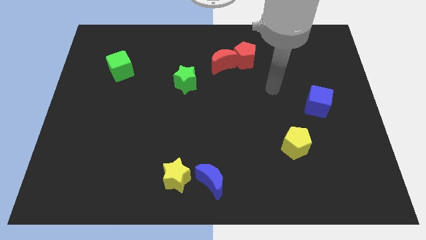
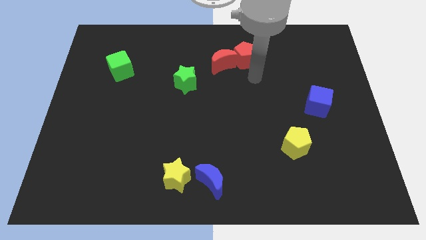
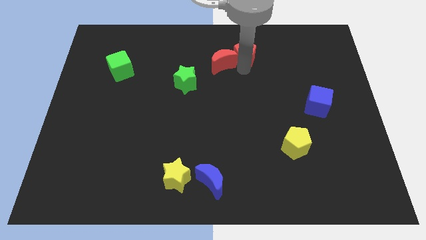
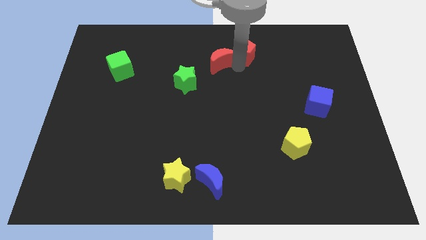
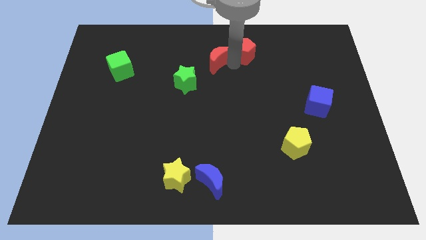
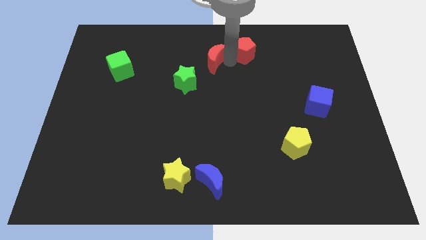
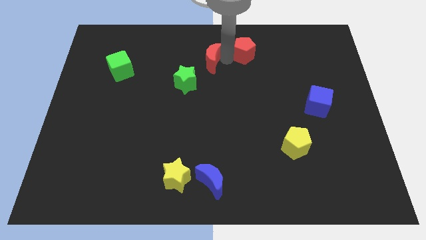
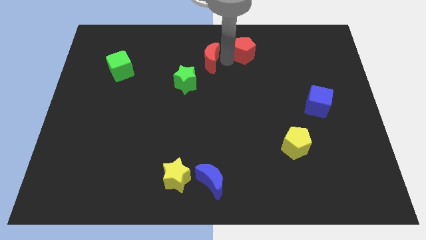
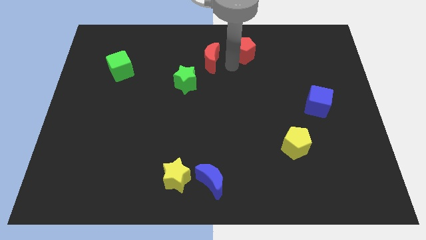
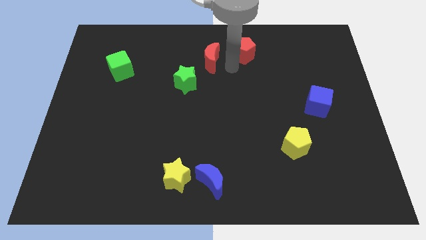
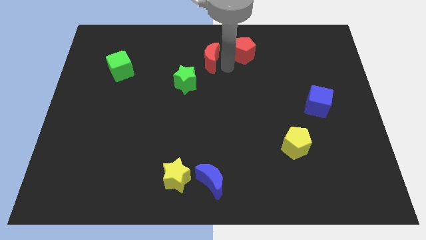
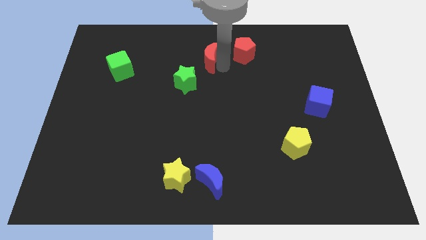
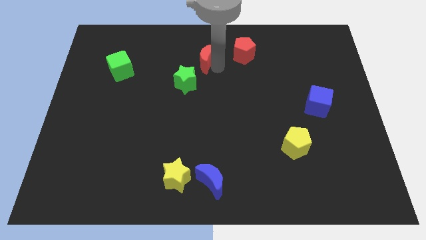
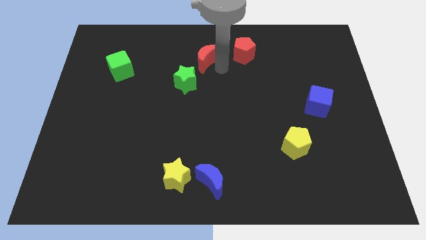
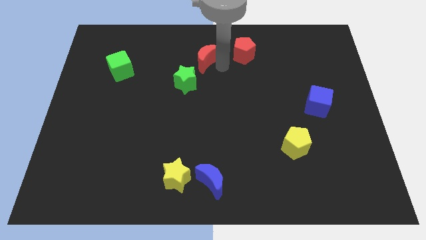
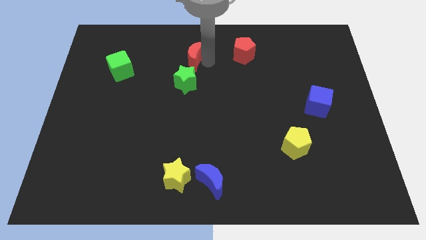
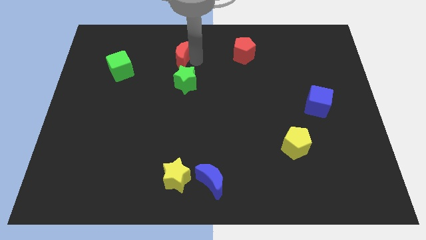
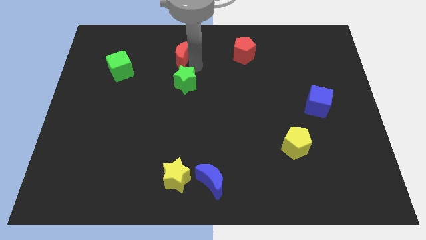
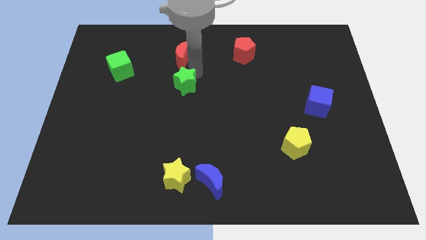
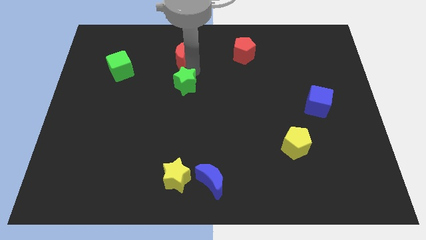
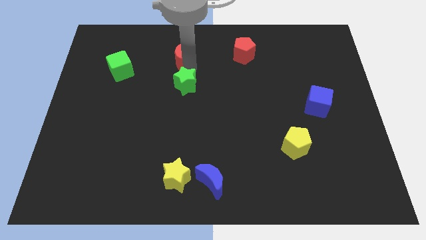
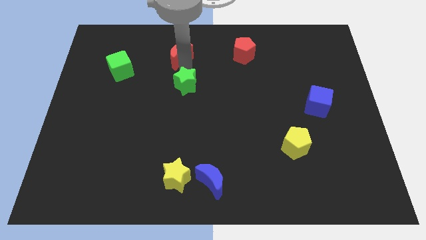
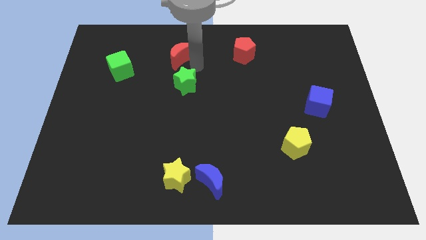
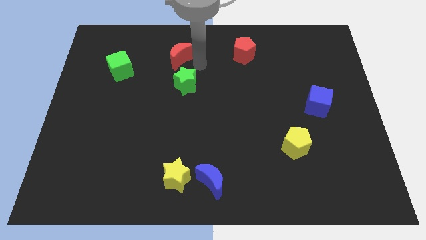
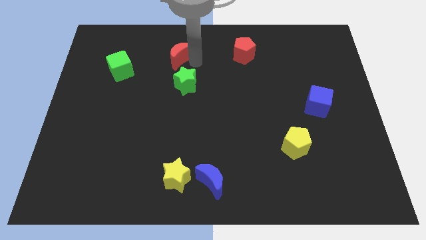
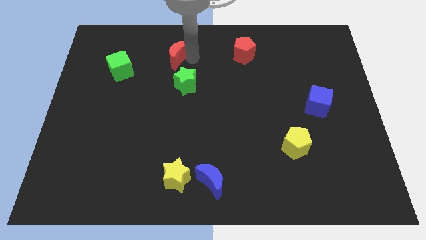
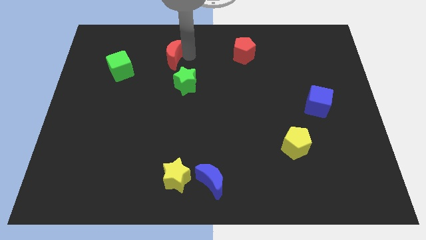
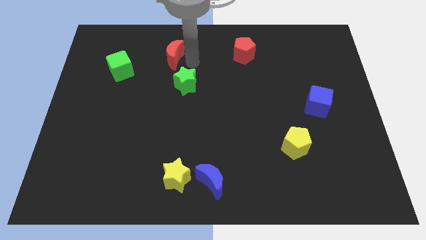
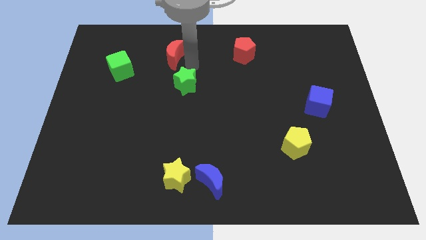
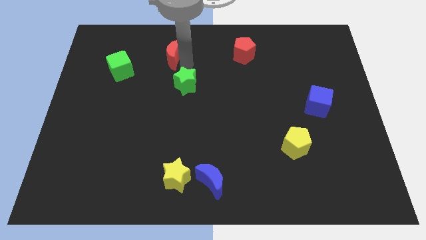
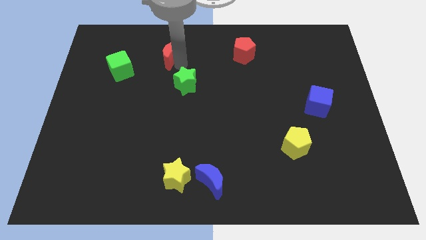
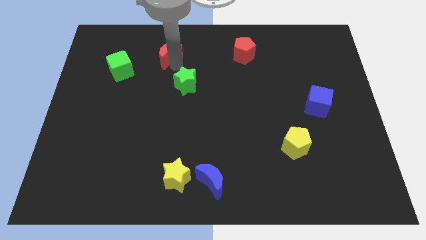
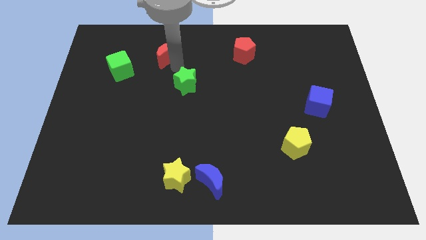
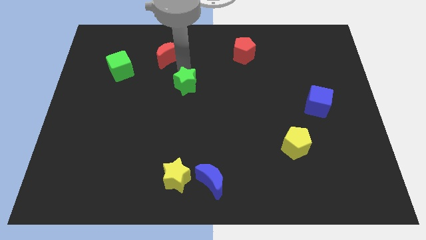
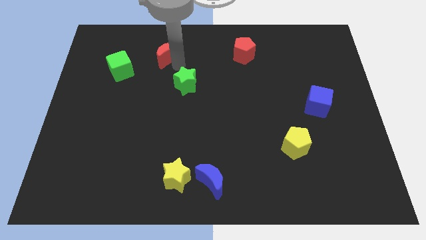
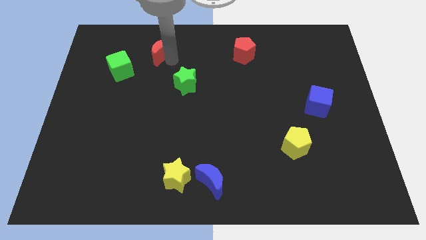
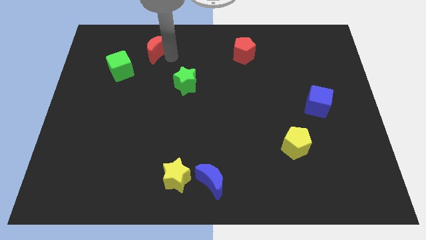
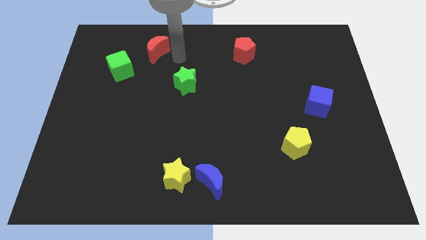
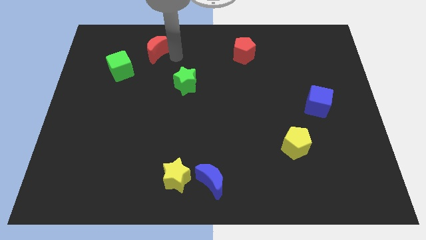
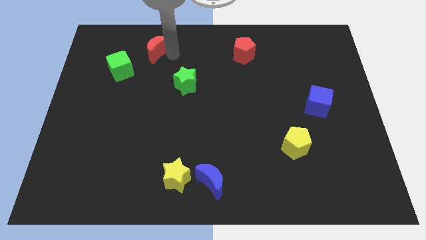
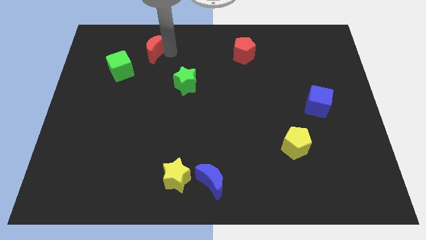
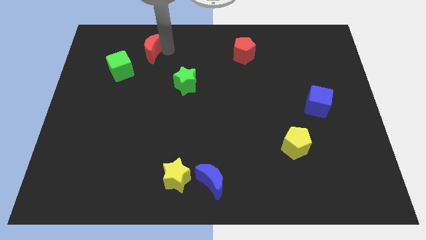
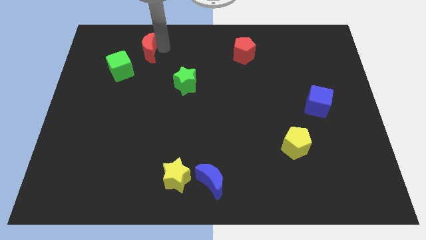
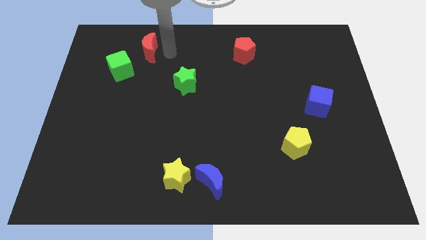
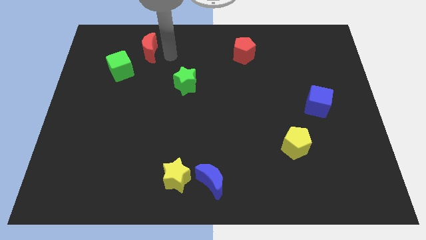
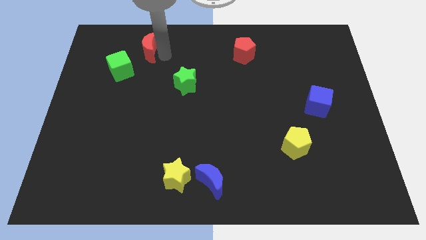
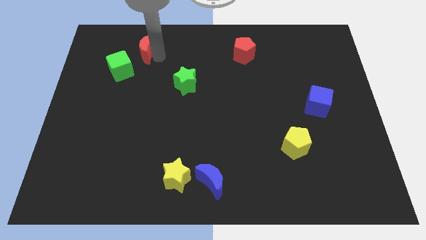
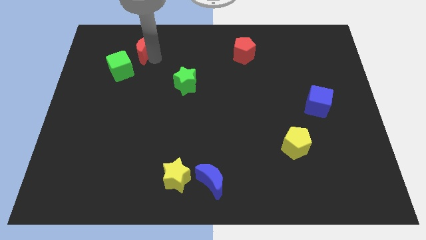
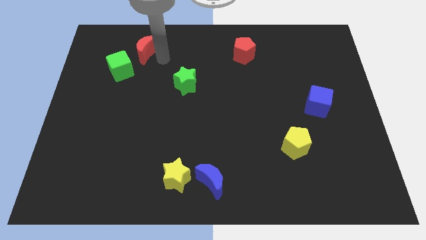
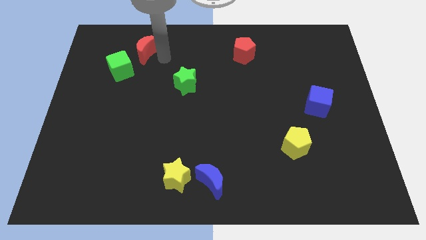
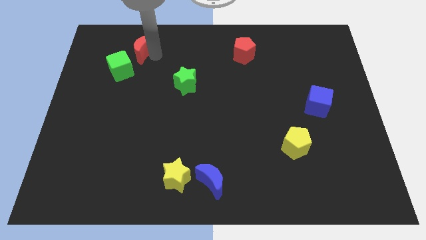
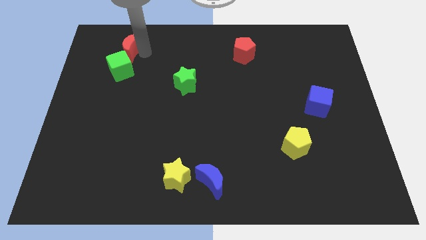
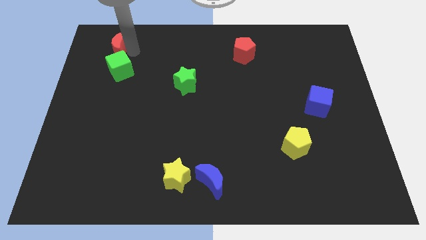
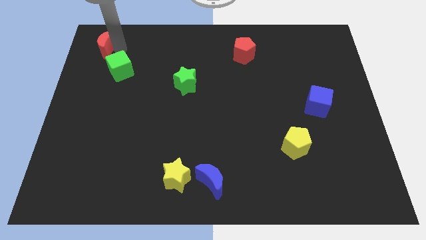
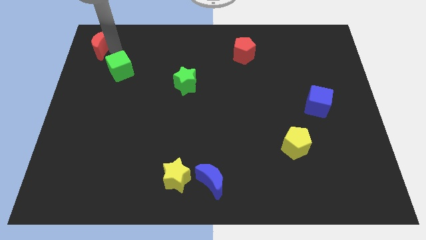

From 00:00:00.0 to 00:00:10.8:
push the red moon to the top left
